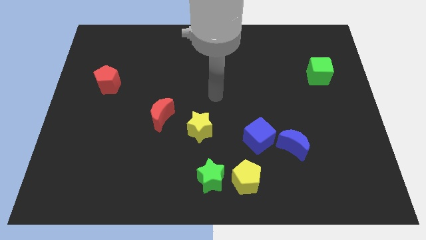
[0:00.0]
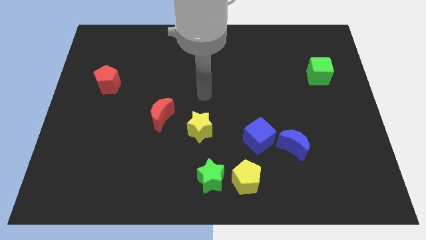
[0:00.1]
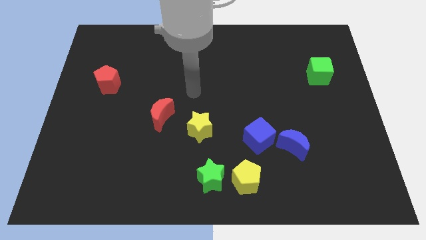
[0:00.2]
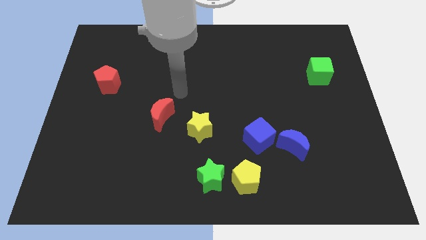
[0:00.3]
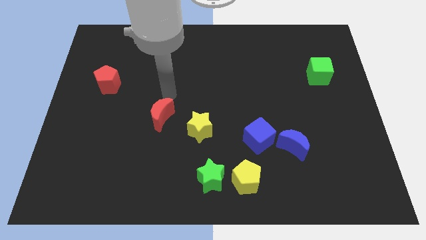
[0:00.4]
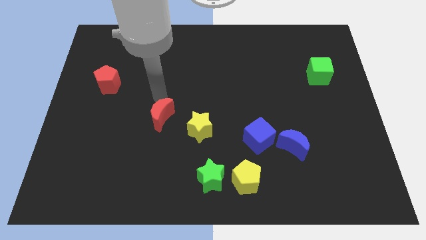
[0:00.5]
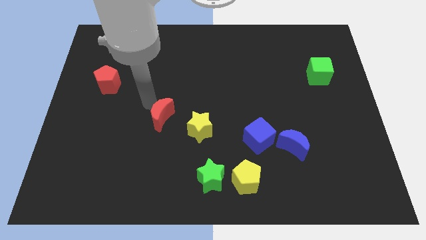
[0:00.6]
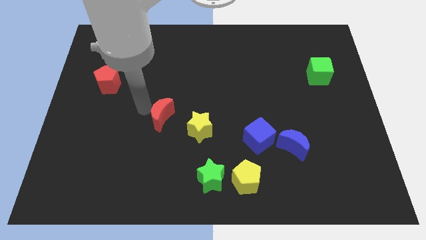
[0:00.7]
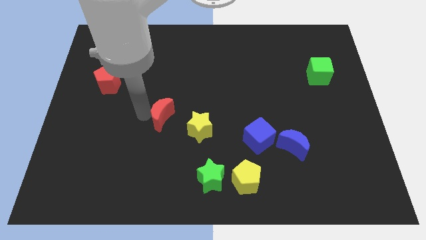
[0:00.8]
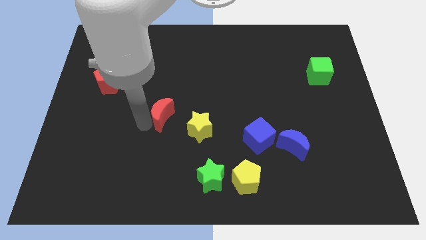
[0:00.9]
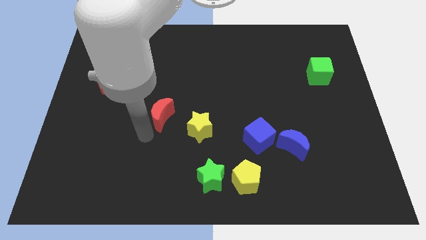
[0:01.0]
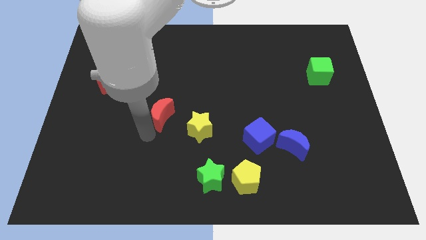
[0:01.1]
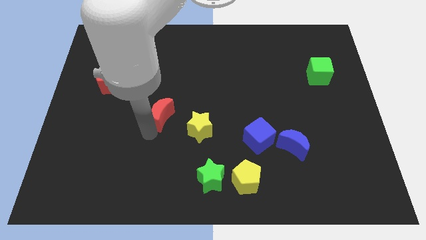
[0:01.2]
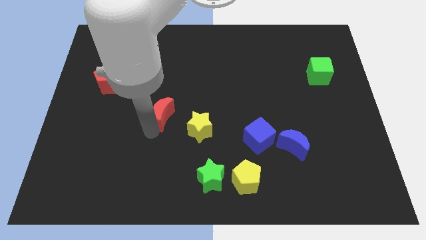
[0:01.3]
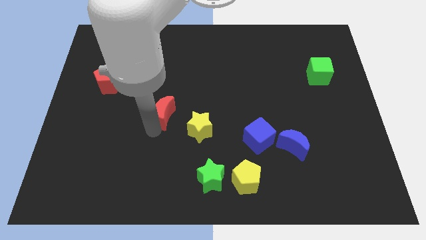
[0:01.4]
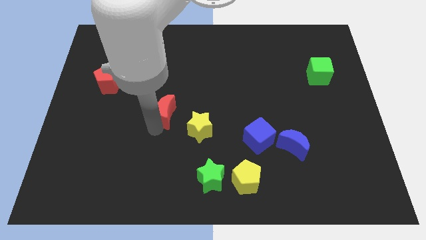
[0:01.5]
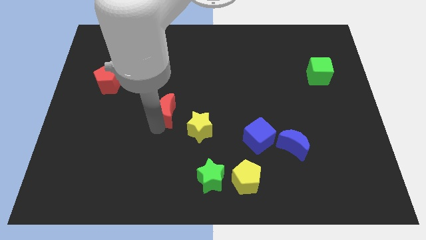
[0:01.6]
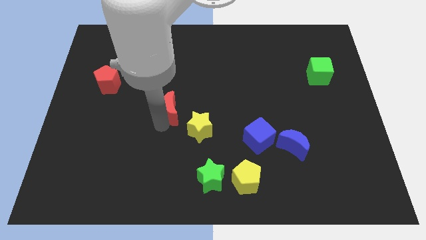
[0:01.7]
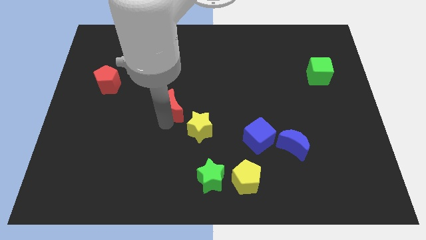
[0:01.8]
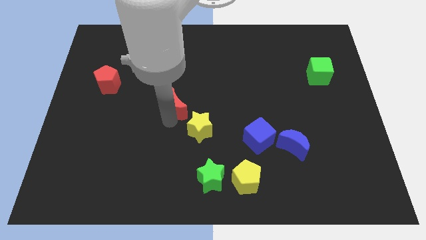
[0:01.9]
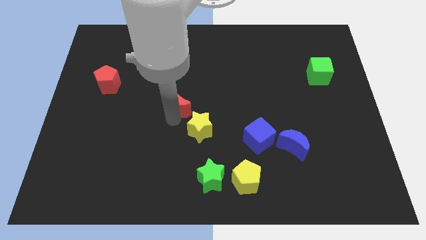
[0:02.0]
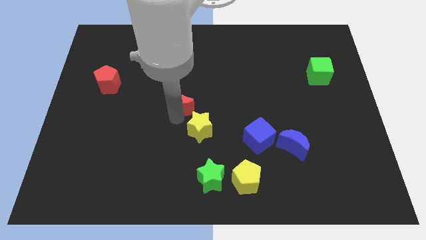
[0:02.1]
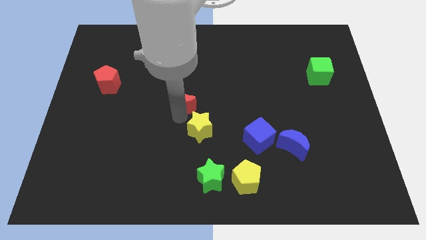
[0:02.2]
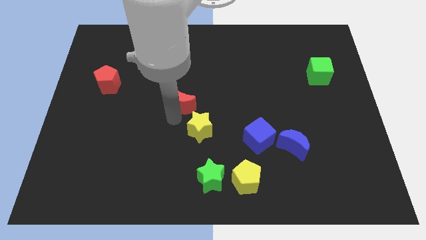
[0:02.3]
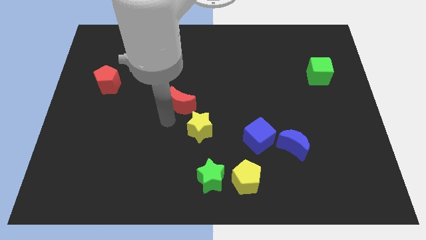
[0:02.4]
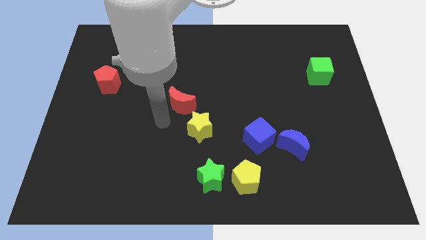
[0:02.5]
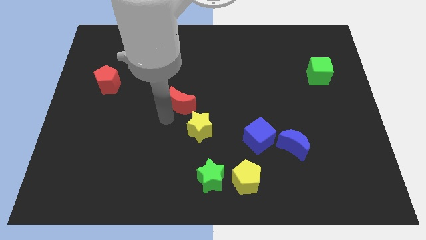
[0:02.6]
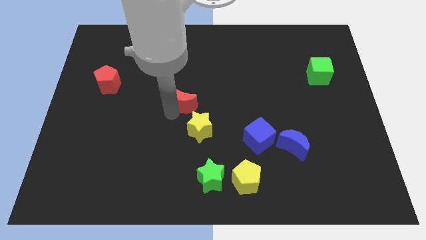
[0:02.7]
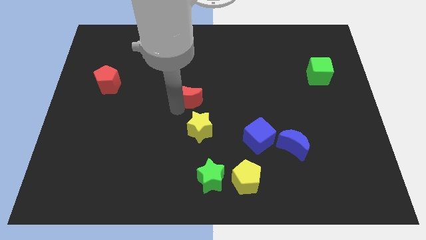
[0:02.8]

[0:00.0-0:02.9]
slightly push the red moon upwards and right

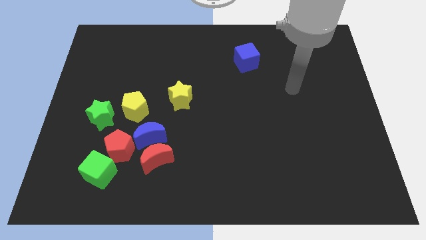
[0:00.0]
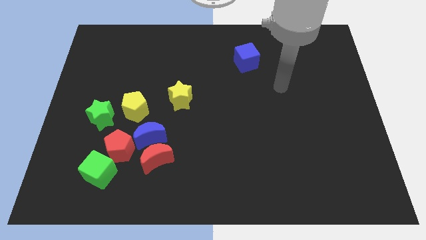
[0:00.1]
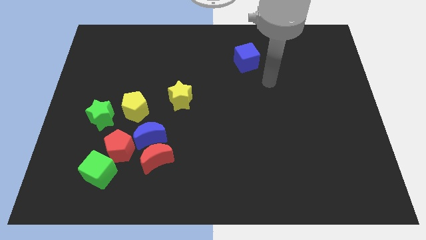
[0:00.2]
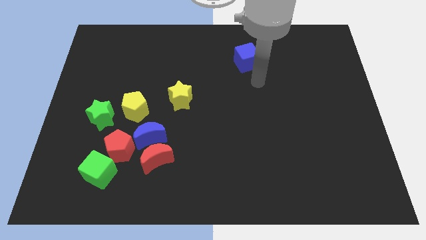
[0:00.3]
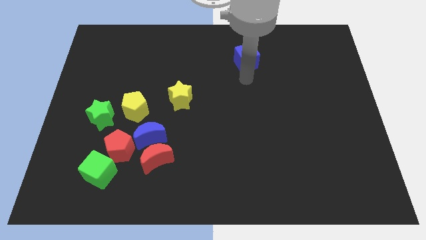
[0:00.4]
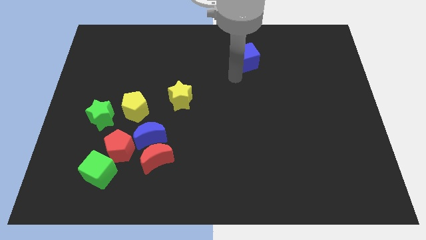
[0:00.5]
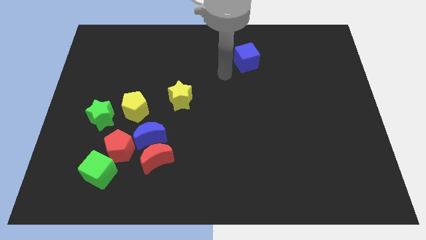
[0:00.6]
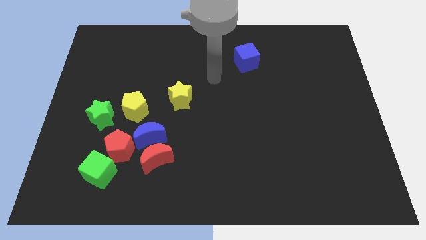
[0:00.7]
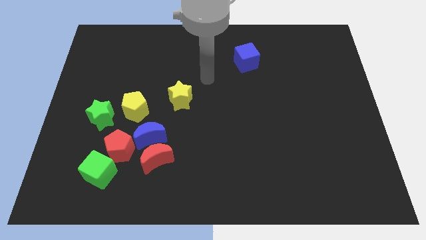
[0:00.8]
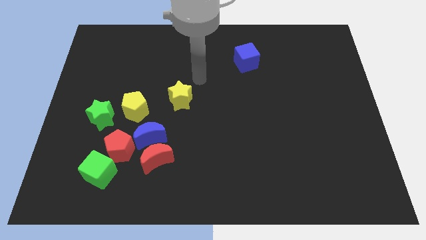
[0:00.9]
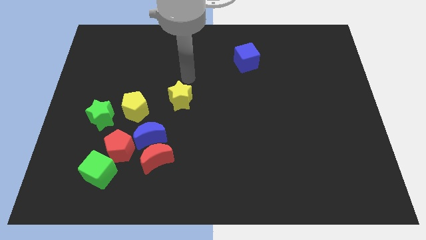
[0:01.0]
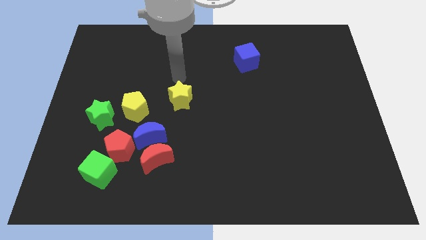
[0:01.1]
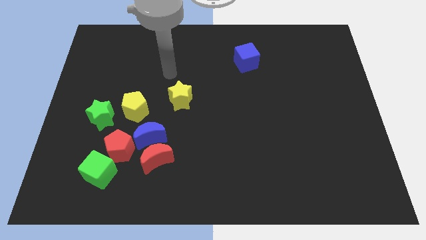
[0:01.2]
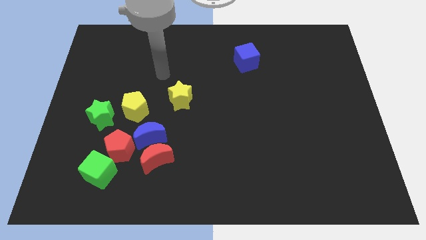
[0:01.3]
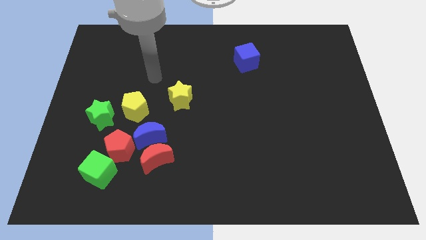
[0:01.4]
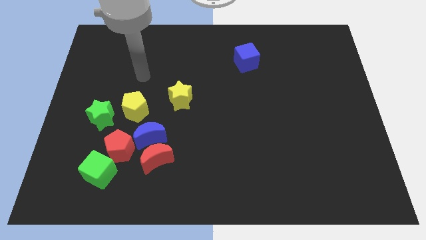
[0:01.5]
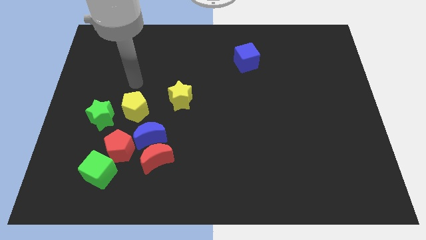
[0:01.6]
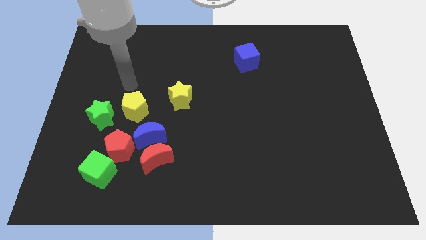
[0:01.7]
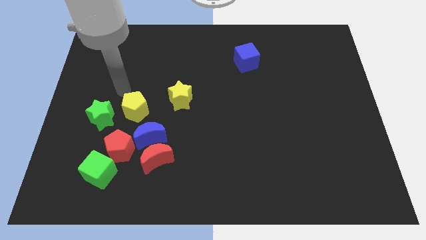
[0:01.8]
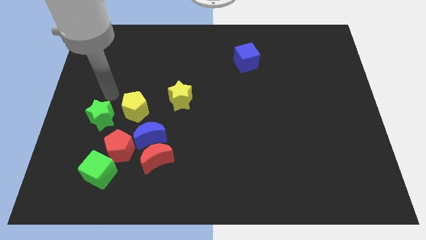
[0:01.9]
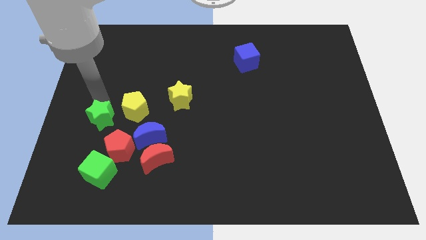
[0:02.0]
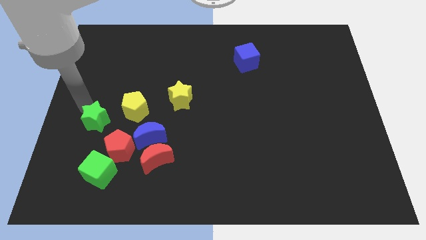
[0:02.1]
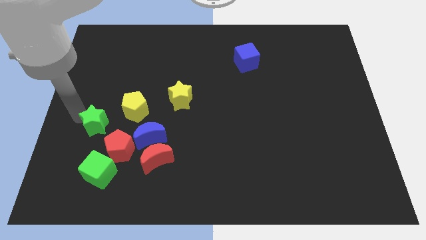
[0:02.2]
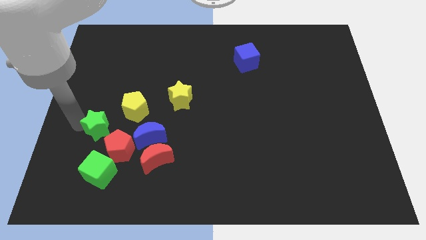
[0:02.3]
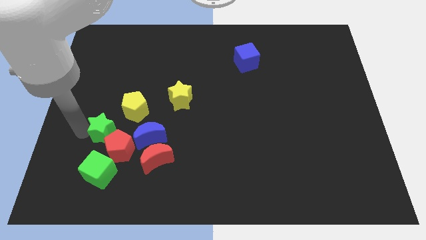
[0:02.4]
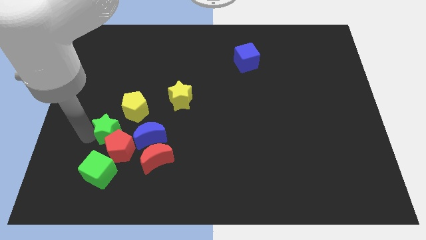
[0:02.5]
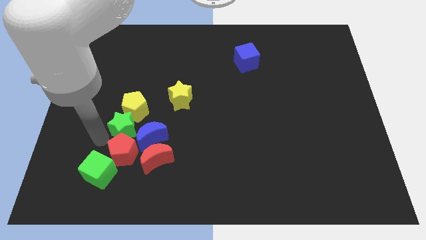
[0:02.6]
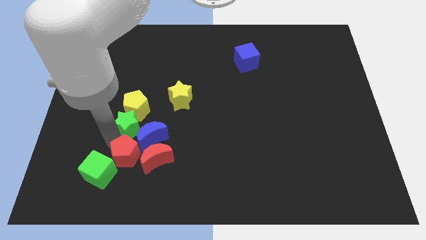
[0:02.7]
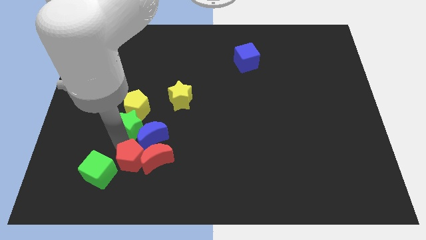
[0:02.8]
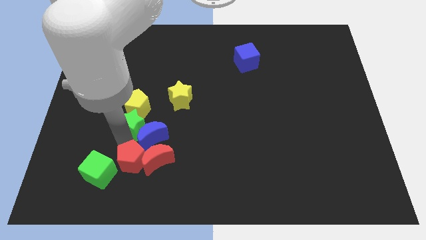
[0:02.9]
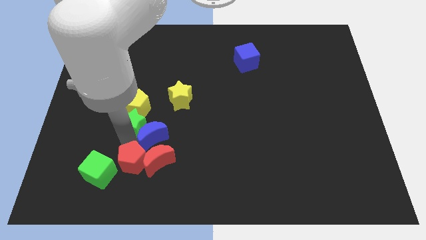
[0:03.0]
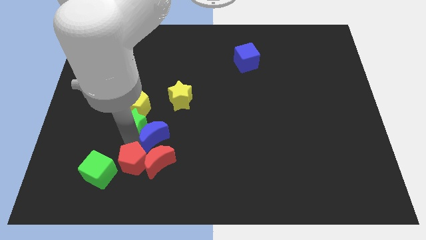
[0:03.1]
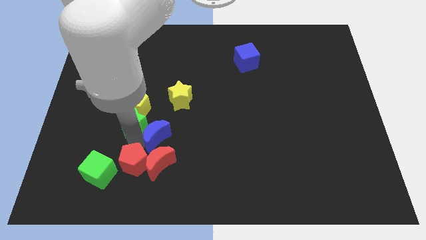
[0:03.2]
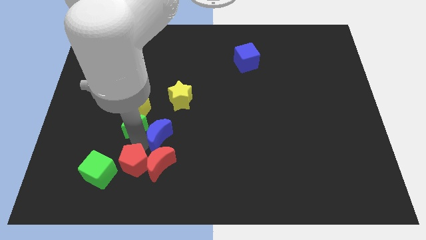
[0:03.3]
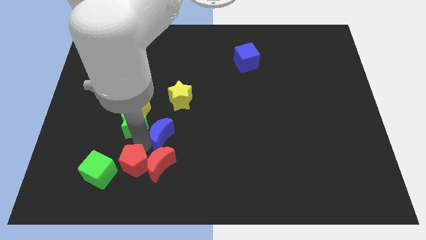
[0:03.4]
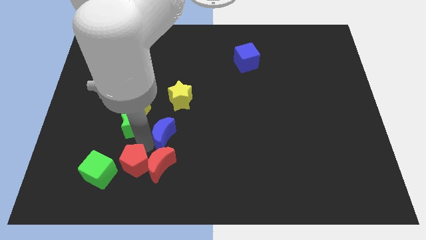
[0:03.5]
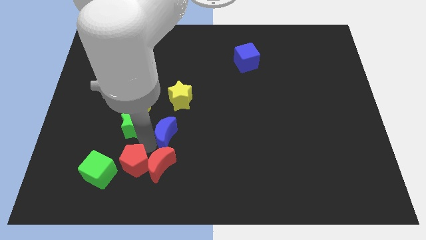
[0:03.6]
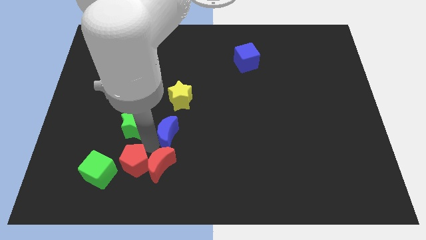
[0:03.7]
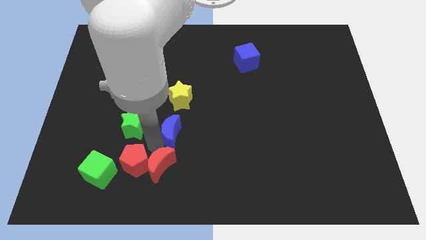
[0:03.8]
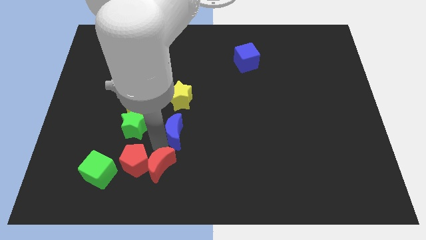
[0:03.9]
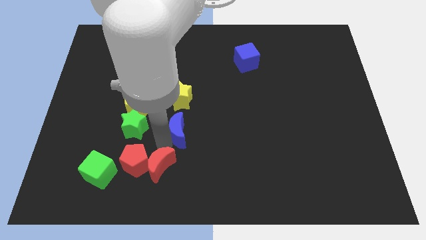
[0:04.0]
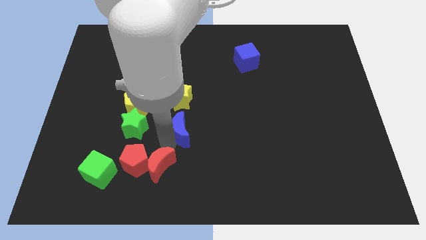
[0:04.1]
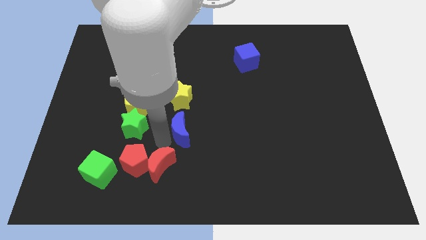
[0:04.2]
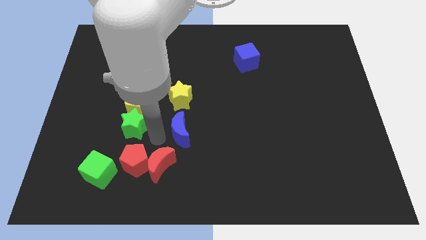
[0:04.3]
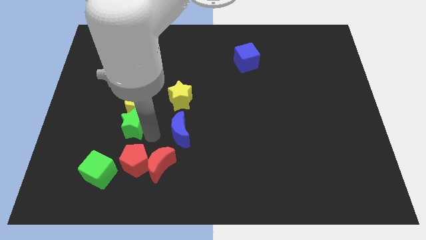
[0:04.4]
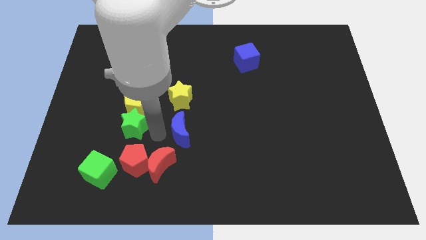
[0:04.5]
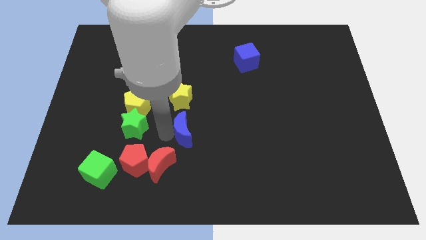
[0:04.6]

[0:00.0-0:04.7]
slightly push the blue moon right

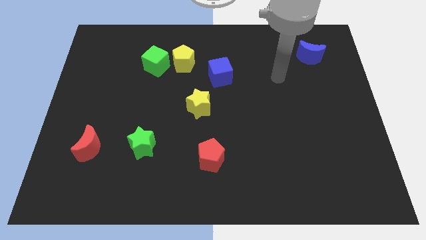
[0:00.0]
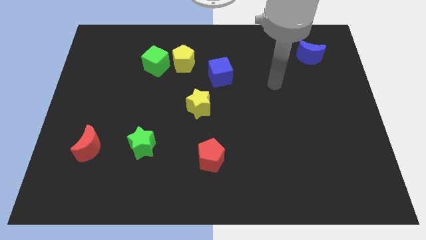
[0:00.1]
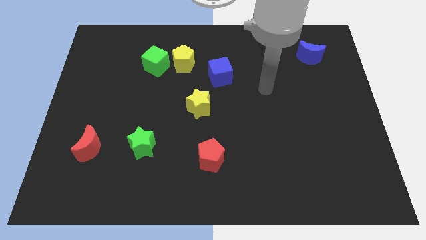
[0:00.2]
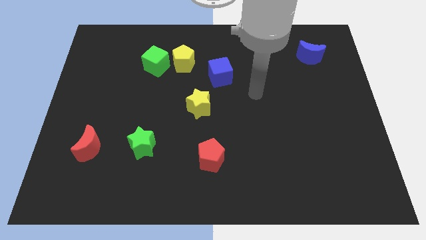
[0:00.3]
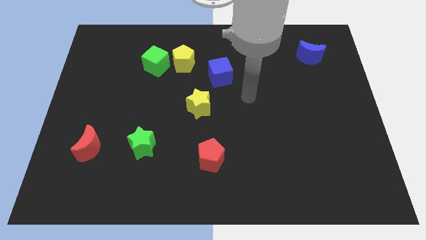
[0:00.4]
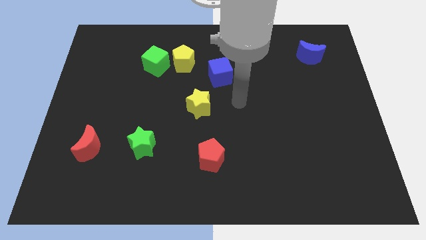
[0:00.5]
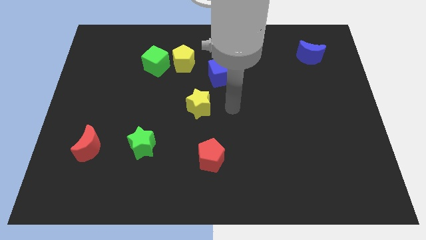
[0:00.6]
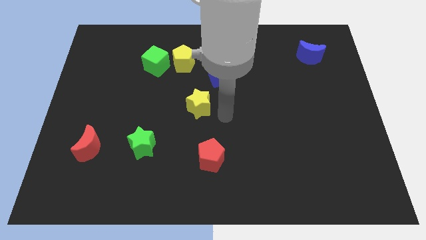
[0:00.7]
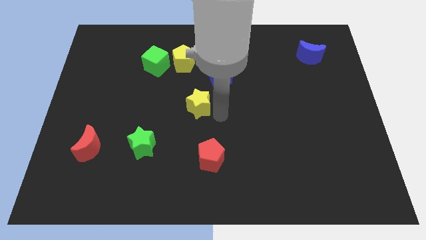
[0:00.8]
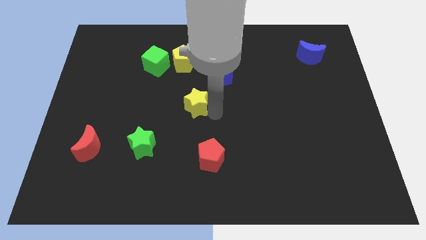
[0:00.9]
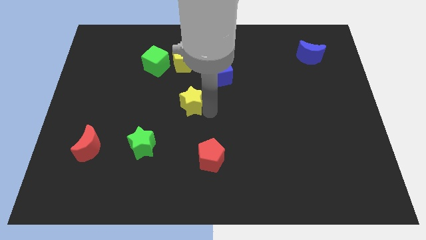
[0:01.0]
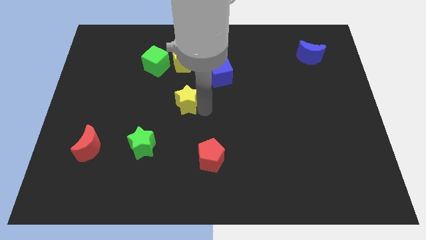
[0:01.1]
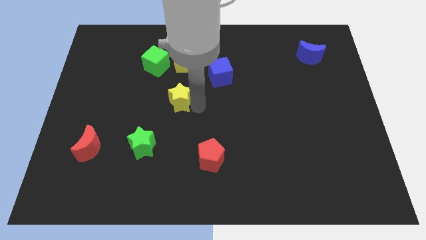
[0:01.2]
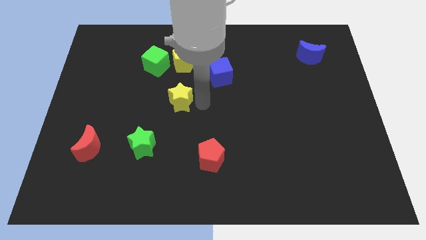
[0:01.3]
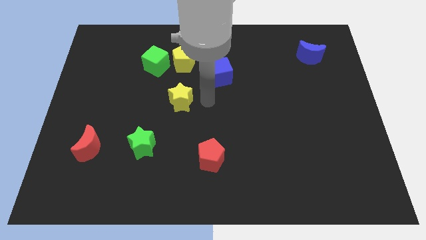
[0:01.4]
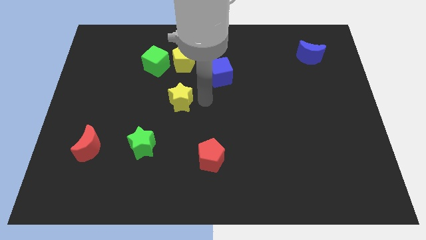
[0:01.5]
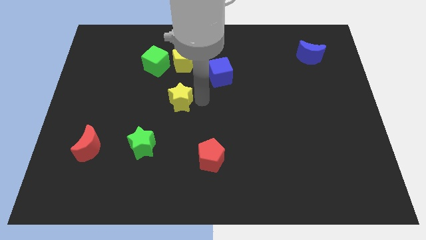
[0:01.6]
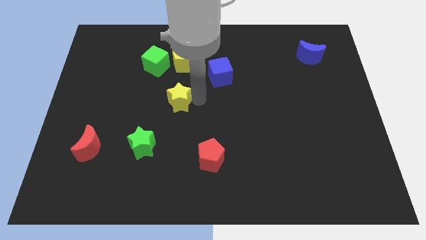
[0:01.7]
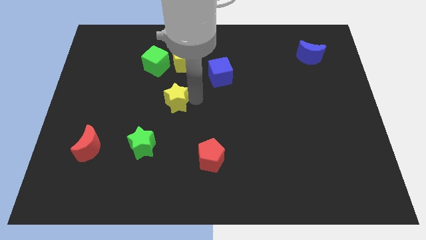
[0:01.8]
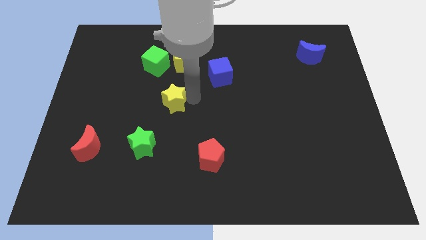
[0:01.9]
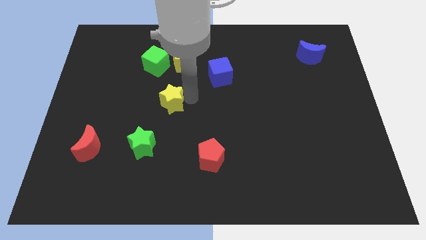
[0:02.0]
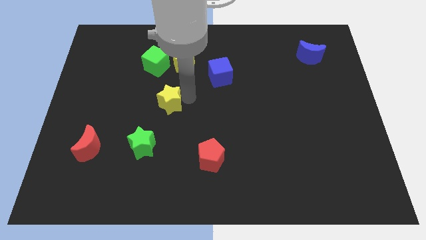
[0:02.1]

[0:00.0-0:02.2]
slightly slide the yellow star left
